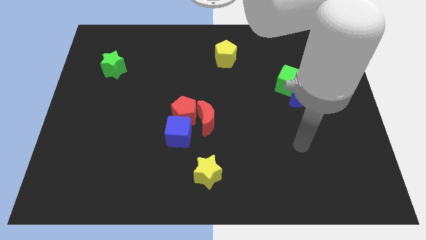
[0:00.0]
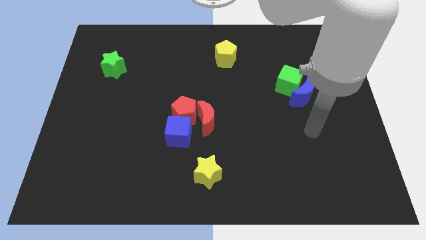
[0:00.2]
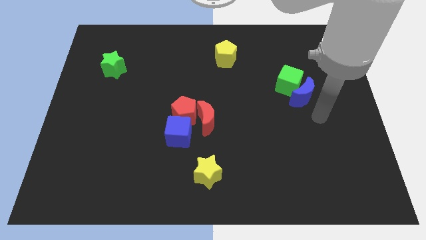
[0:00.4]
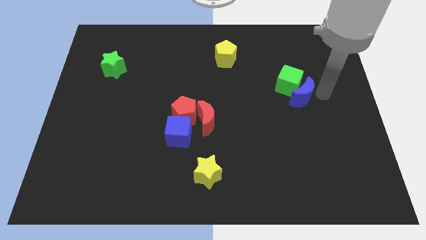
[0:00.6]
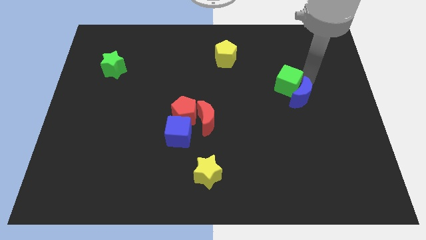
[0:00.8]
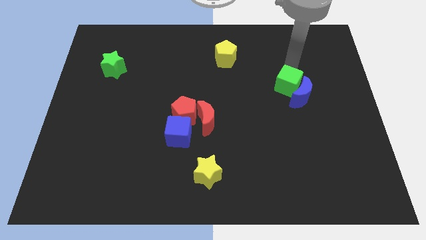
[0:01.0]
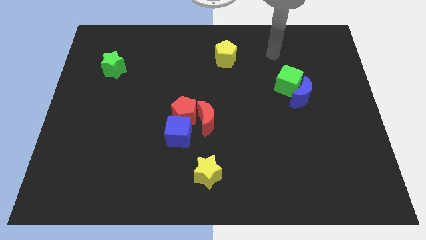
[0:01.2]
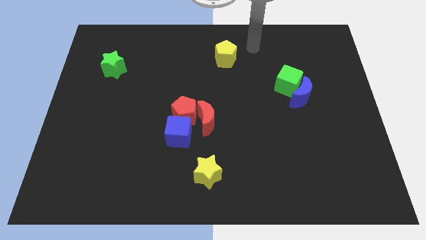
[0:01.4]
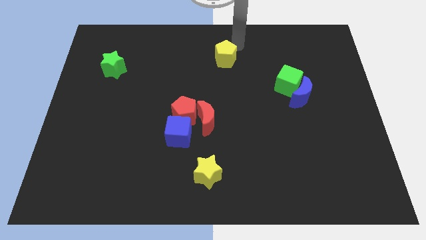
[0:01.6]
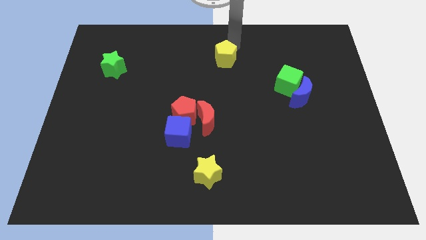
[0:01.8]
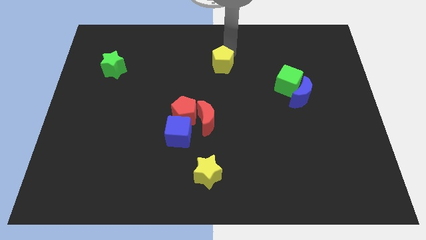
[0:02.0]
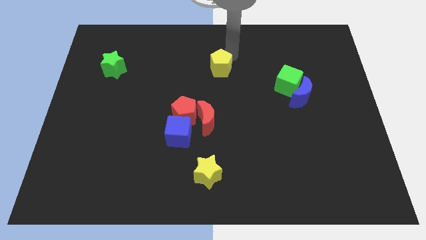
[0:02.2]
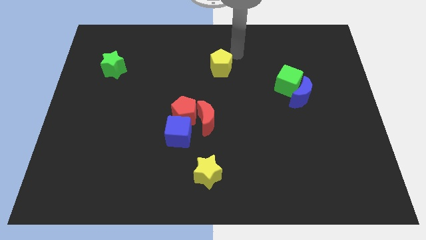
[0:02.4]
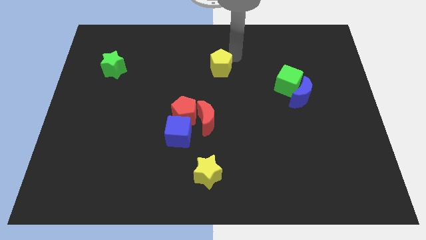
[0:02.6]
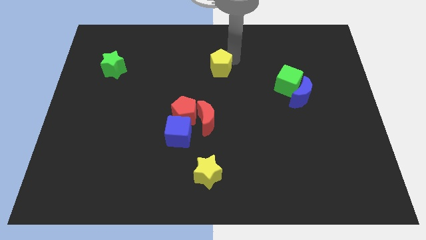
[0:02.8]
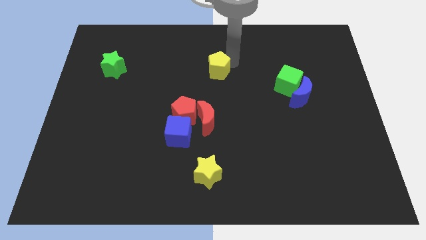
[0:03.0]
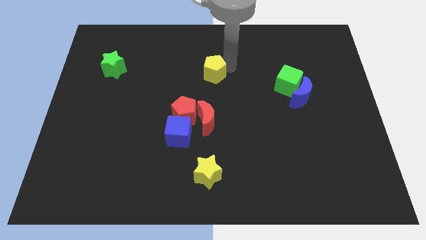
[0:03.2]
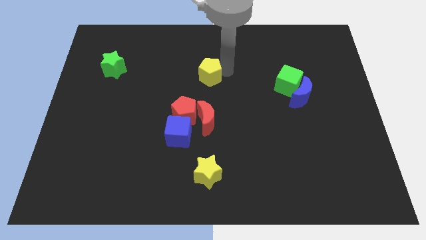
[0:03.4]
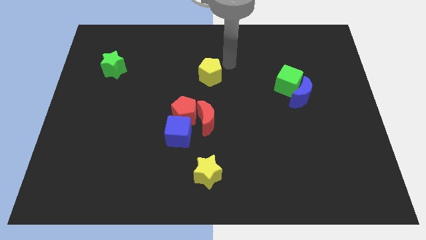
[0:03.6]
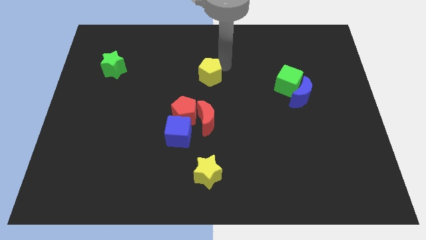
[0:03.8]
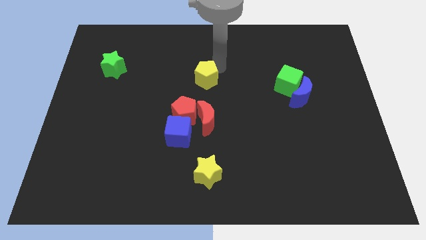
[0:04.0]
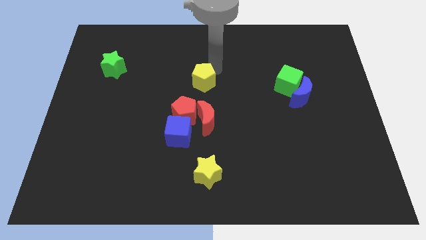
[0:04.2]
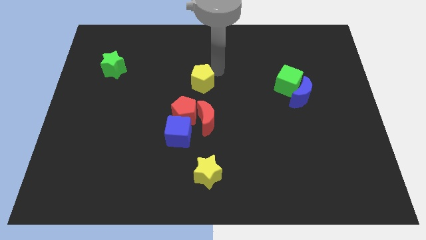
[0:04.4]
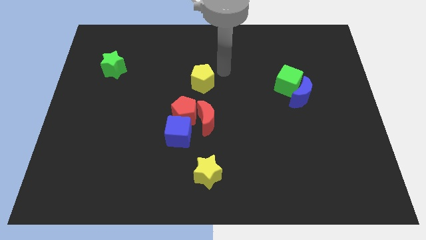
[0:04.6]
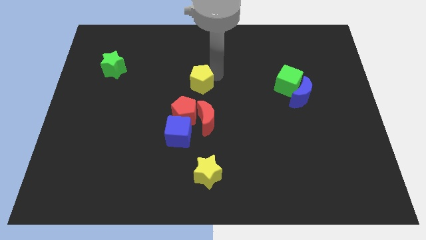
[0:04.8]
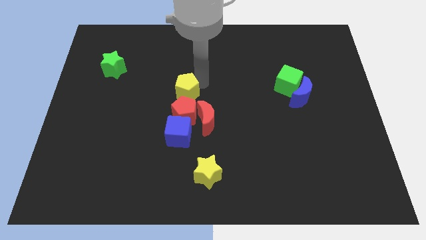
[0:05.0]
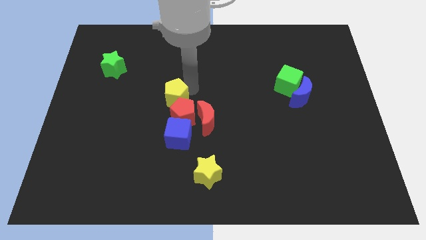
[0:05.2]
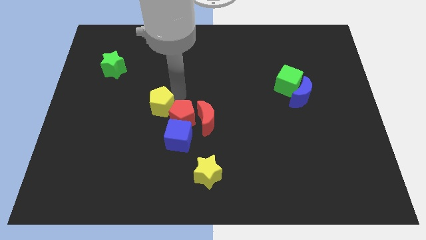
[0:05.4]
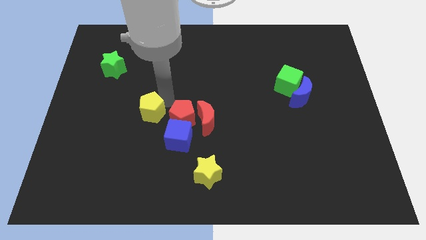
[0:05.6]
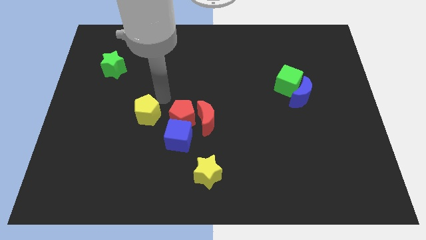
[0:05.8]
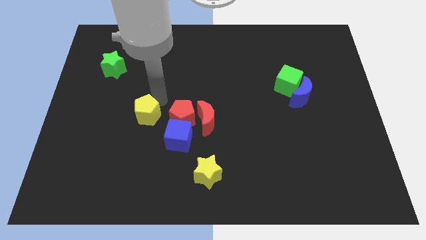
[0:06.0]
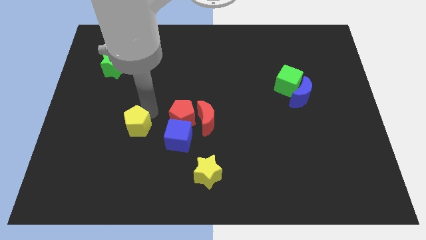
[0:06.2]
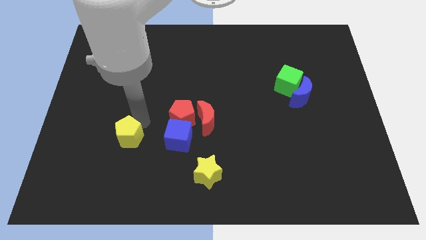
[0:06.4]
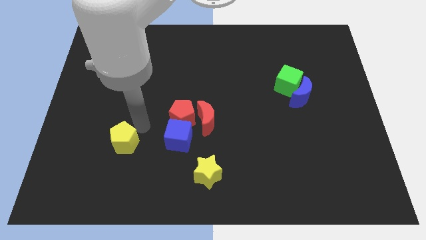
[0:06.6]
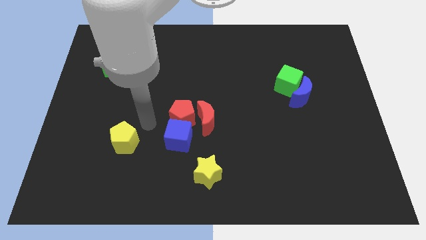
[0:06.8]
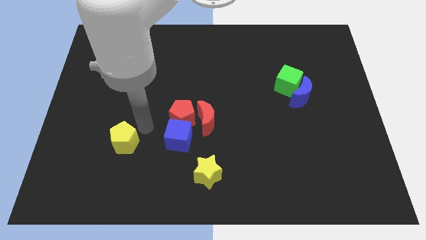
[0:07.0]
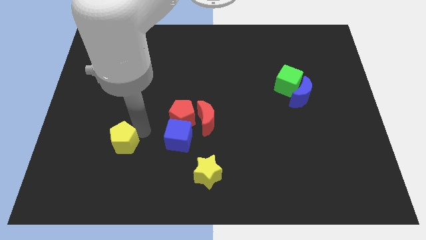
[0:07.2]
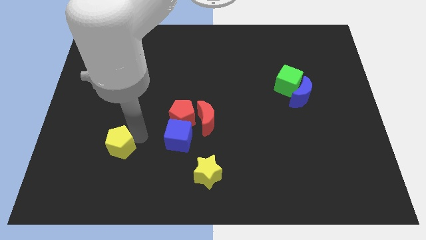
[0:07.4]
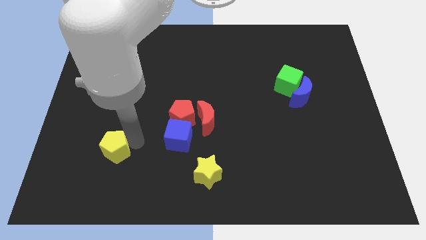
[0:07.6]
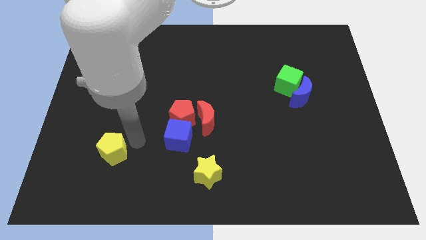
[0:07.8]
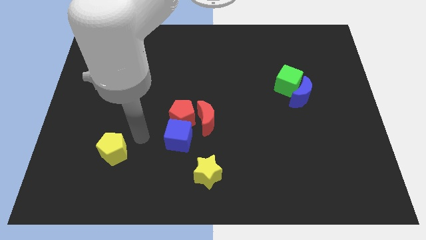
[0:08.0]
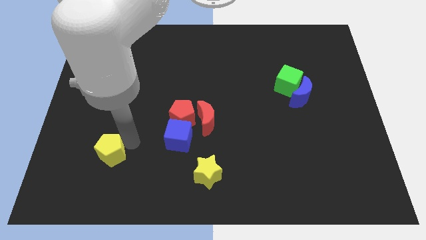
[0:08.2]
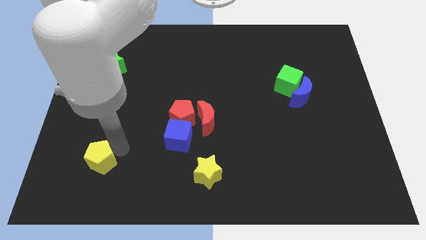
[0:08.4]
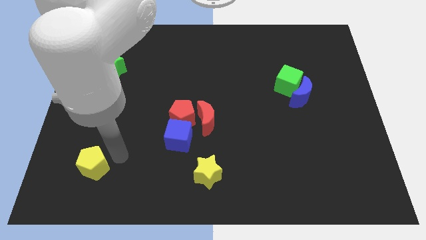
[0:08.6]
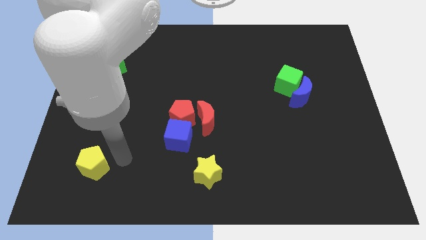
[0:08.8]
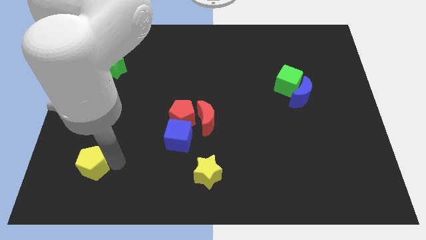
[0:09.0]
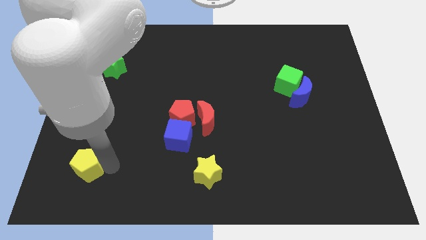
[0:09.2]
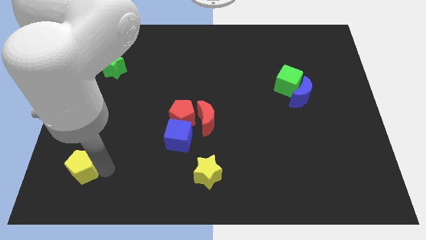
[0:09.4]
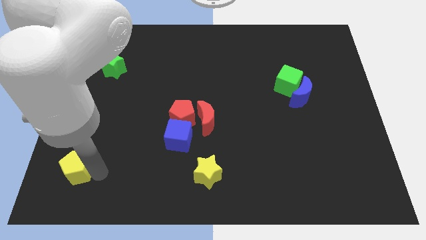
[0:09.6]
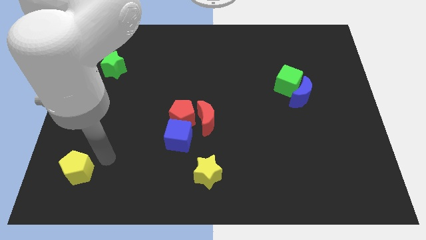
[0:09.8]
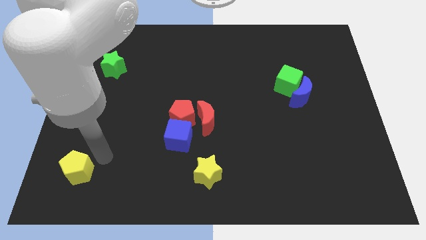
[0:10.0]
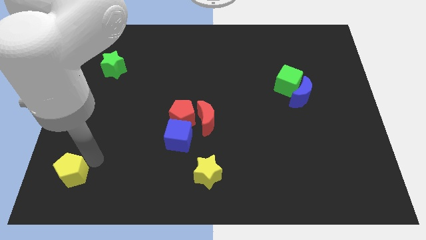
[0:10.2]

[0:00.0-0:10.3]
put the yellow pentagon to the bottom left corner

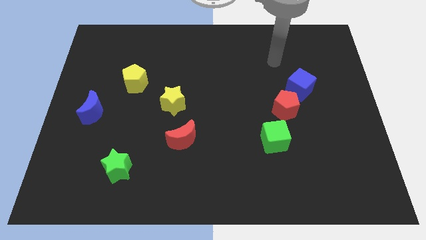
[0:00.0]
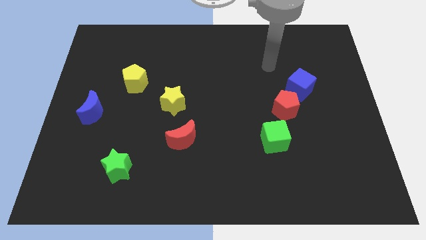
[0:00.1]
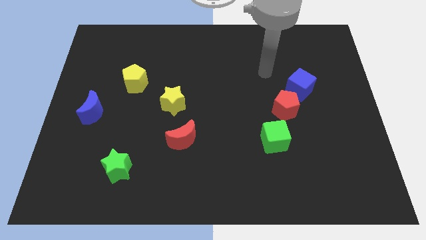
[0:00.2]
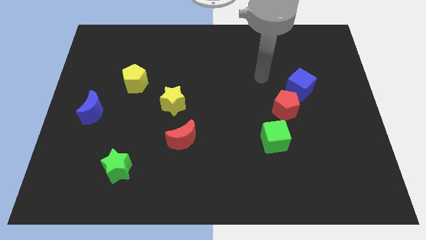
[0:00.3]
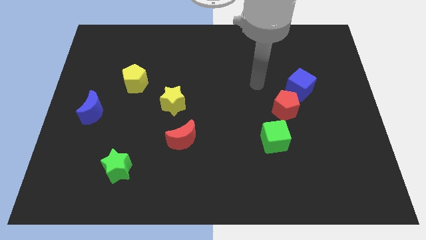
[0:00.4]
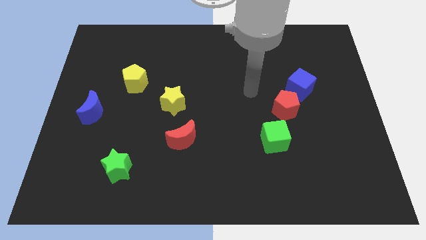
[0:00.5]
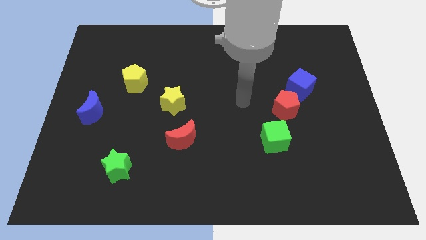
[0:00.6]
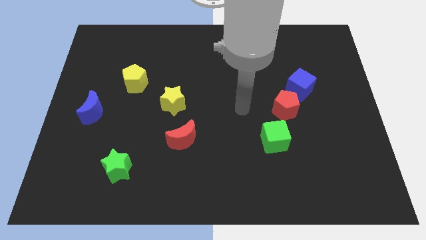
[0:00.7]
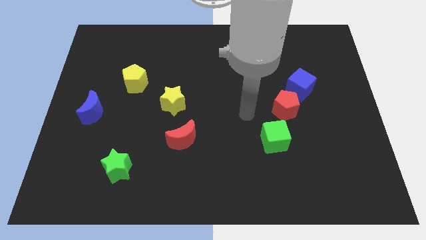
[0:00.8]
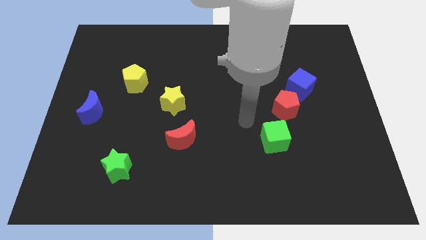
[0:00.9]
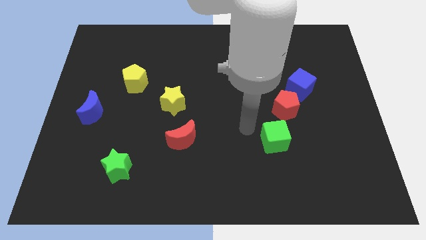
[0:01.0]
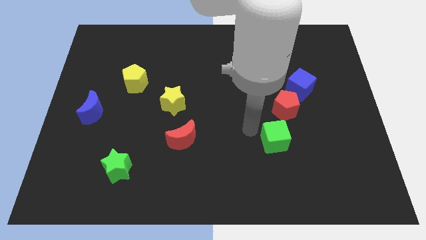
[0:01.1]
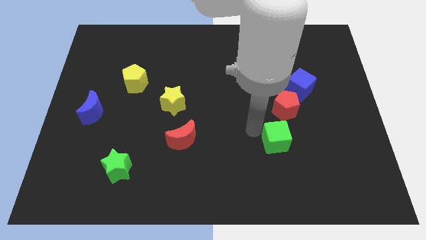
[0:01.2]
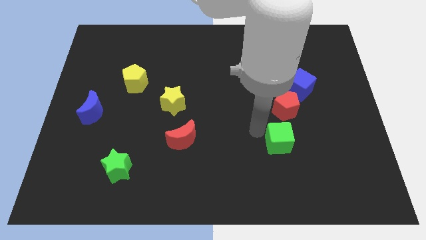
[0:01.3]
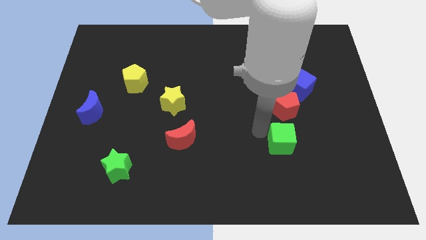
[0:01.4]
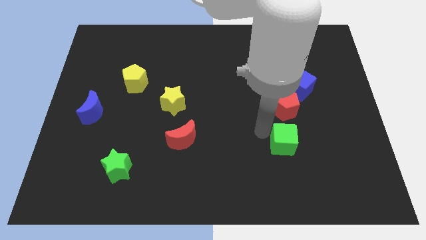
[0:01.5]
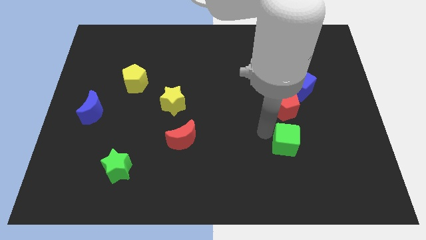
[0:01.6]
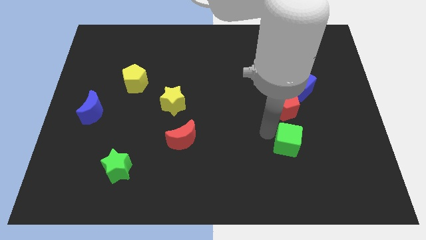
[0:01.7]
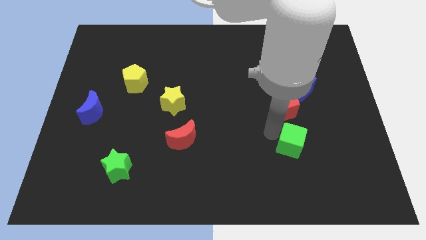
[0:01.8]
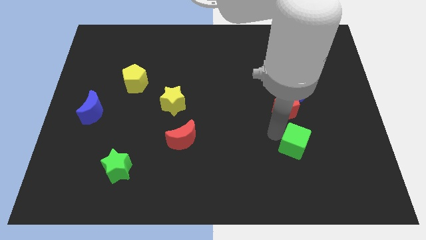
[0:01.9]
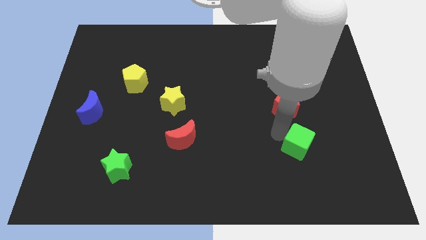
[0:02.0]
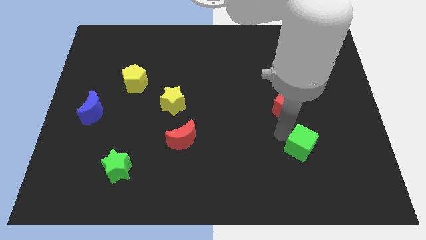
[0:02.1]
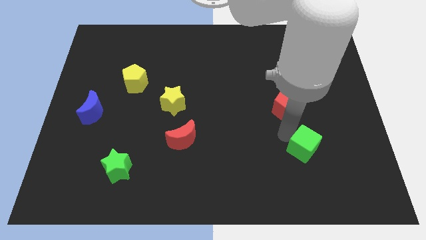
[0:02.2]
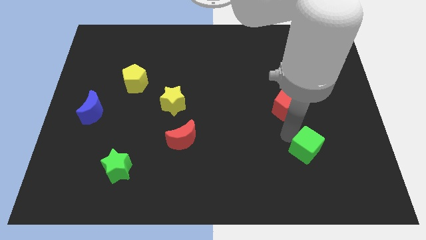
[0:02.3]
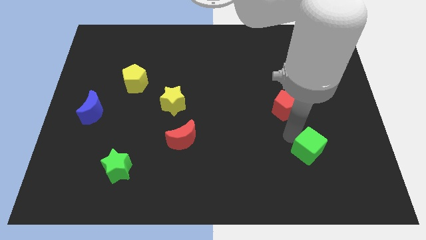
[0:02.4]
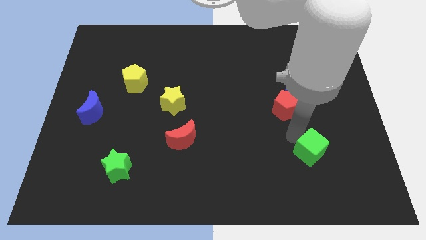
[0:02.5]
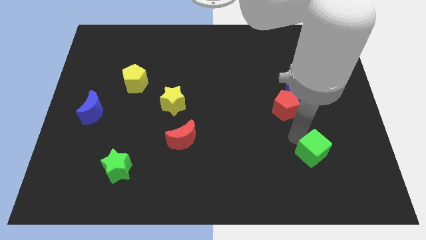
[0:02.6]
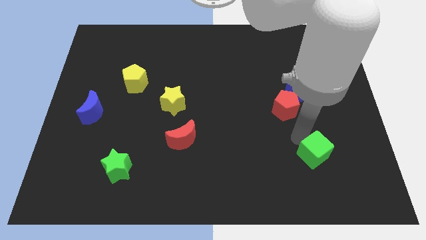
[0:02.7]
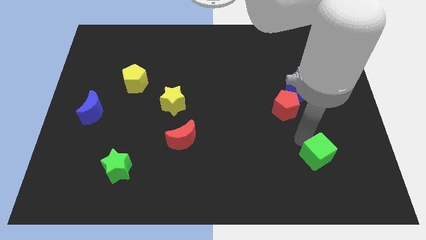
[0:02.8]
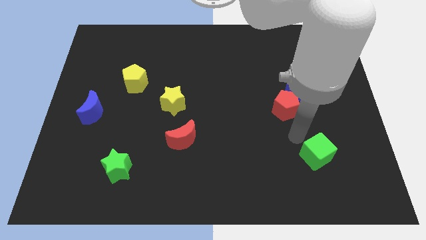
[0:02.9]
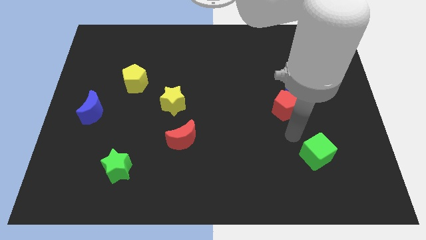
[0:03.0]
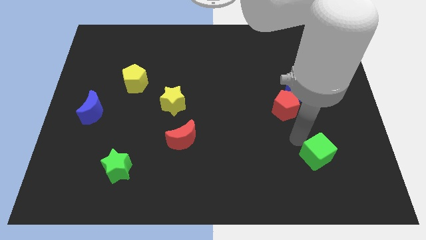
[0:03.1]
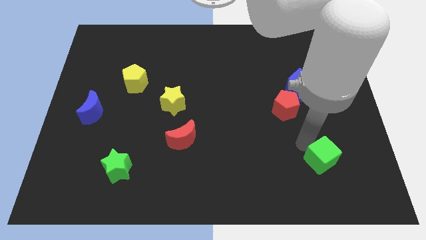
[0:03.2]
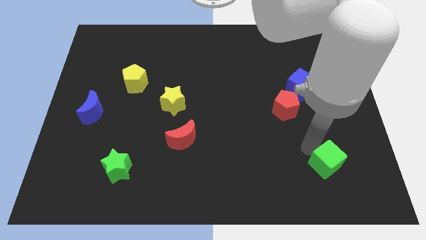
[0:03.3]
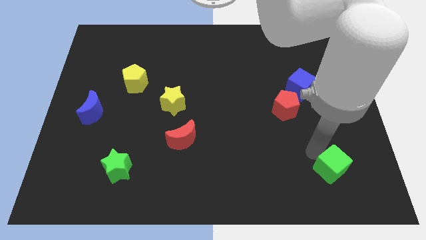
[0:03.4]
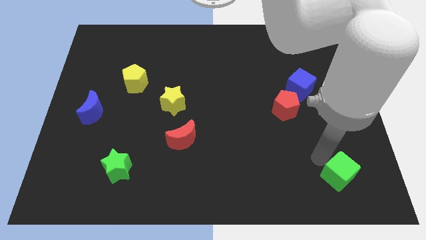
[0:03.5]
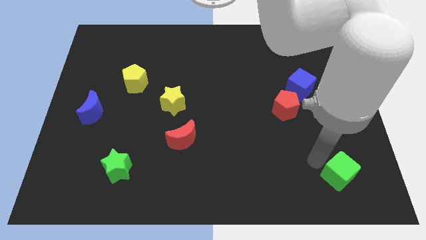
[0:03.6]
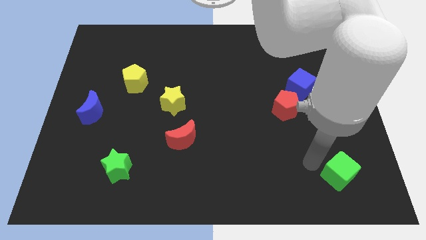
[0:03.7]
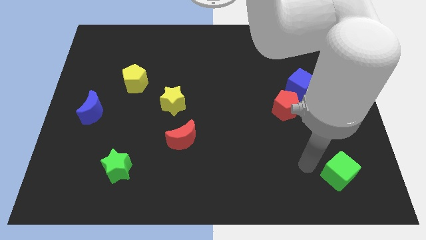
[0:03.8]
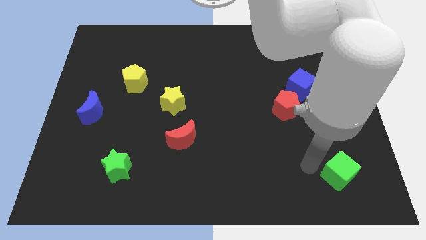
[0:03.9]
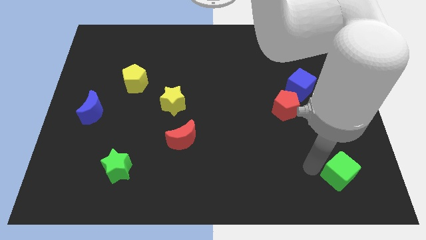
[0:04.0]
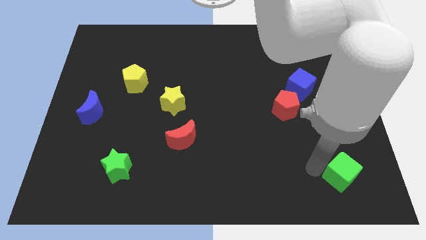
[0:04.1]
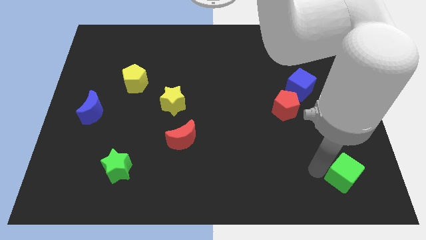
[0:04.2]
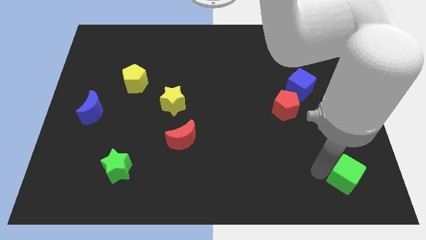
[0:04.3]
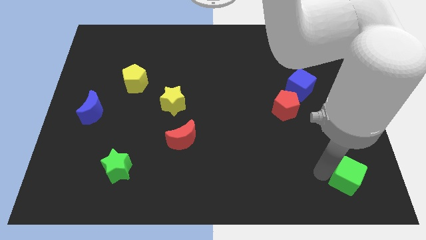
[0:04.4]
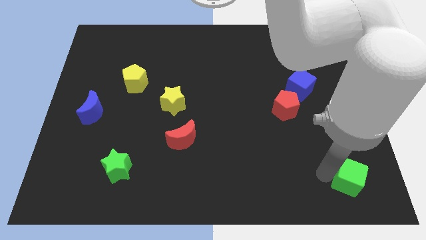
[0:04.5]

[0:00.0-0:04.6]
move the green cube to the lower right corner
